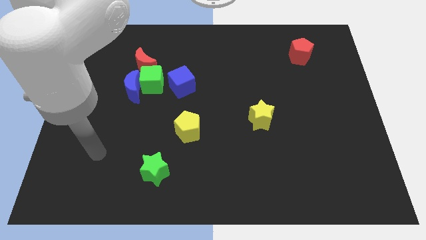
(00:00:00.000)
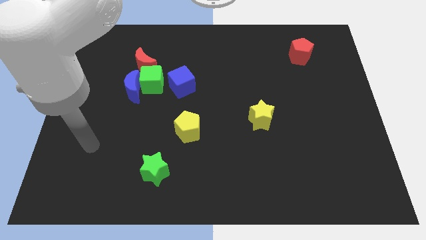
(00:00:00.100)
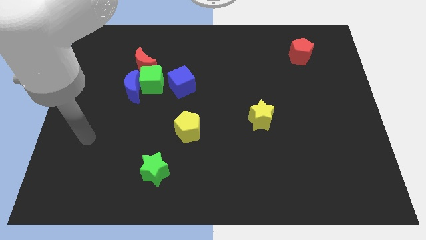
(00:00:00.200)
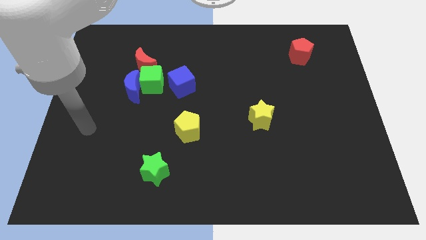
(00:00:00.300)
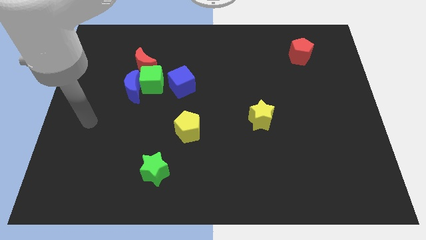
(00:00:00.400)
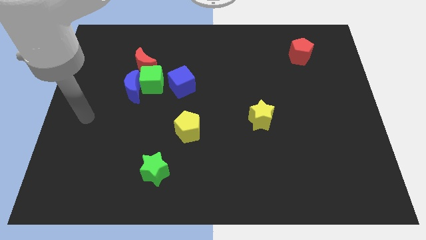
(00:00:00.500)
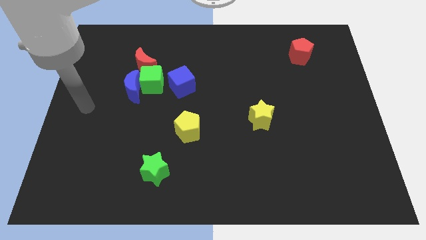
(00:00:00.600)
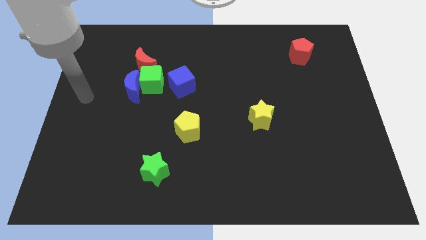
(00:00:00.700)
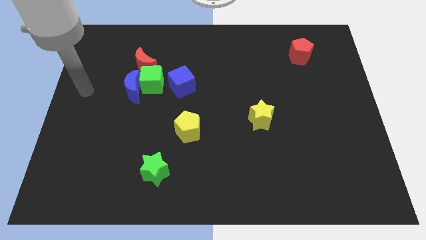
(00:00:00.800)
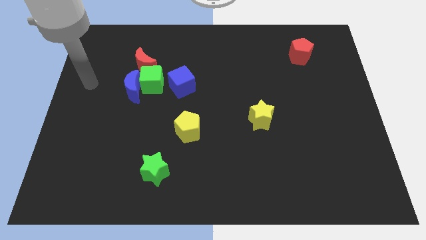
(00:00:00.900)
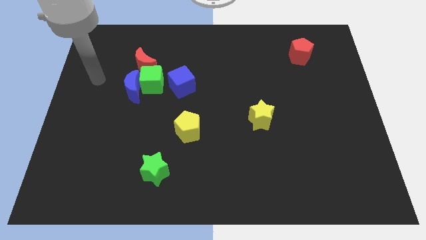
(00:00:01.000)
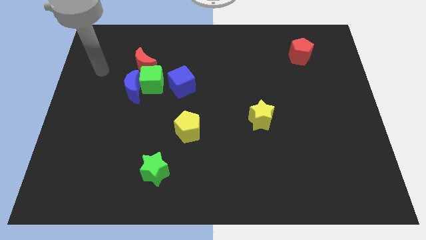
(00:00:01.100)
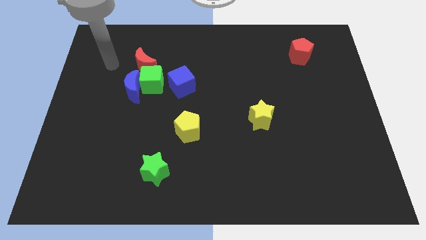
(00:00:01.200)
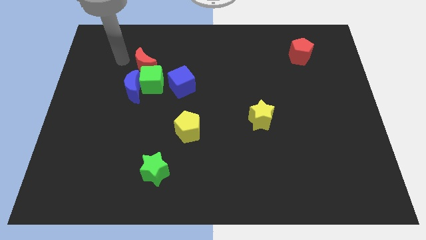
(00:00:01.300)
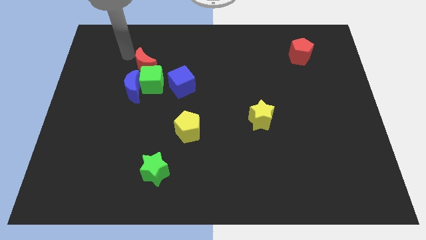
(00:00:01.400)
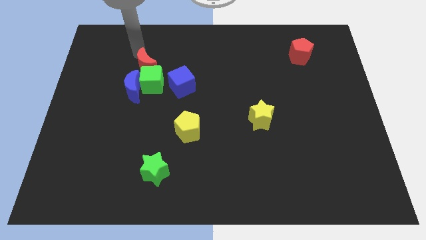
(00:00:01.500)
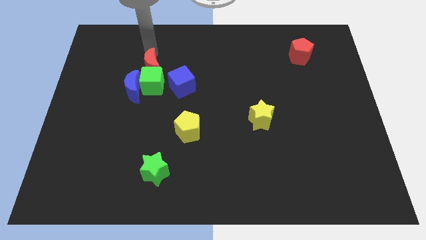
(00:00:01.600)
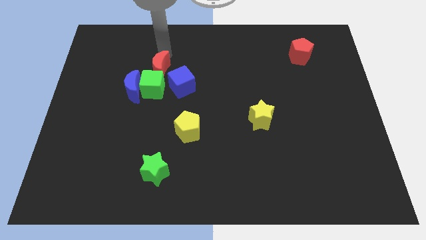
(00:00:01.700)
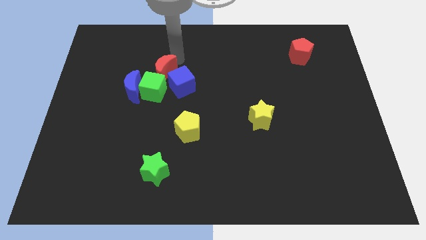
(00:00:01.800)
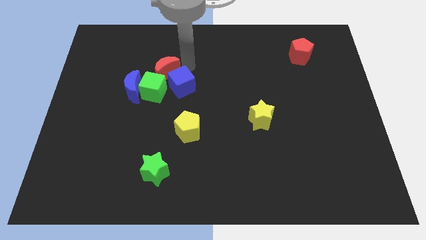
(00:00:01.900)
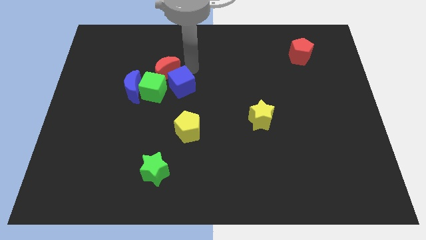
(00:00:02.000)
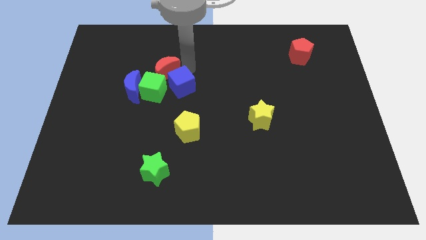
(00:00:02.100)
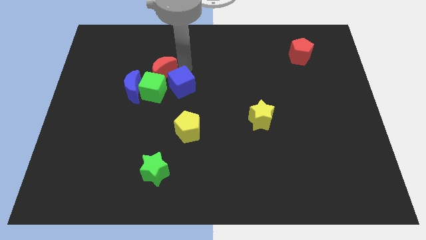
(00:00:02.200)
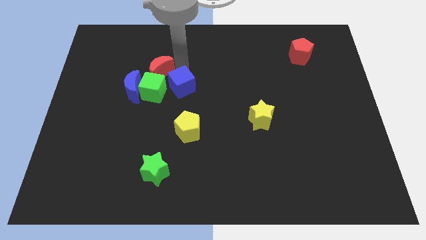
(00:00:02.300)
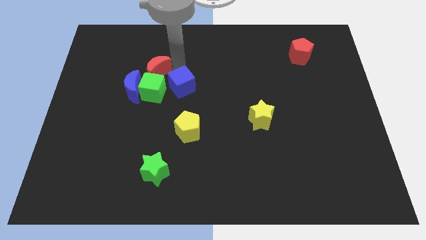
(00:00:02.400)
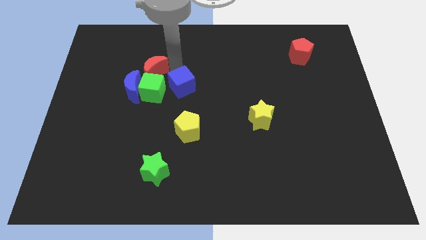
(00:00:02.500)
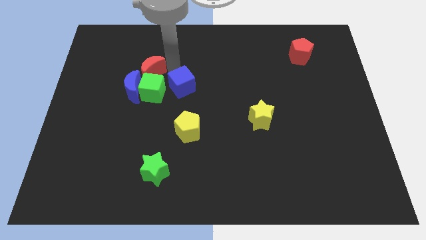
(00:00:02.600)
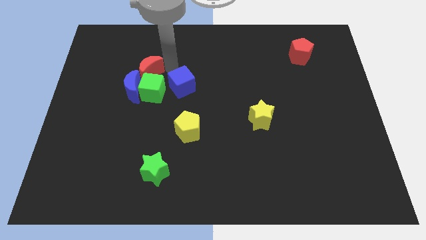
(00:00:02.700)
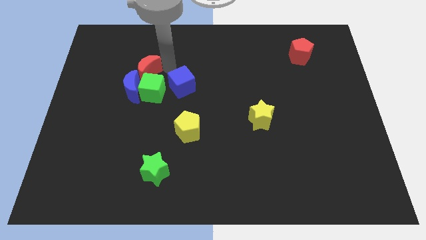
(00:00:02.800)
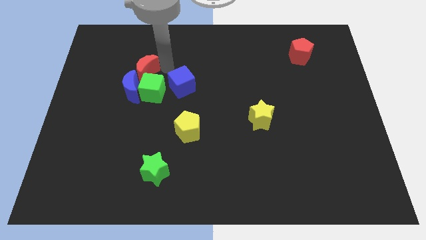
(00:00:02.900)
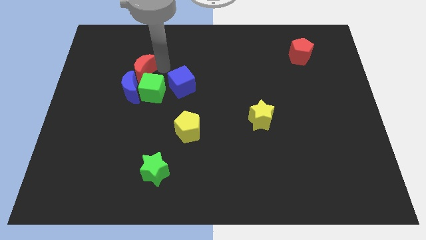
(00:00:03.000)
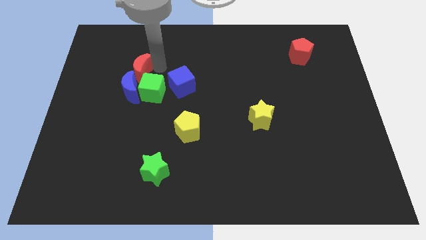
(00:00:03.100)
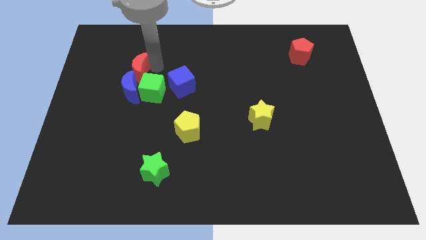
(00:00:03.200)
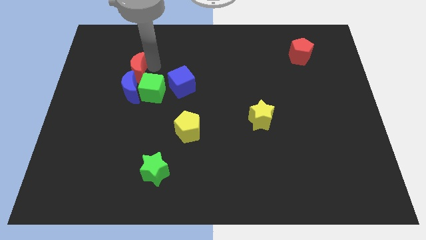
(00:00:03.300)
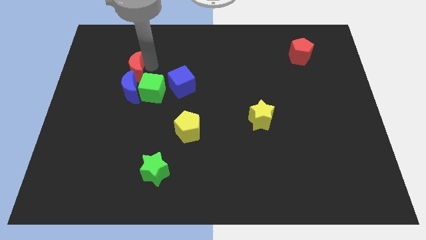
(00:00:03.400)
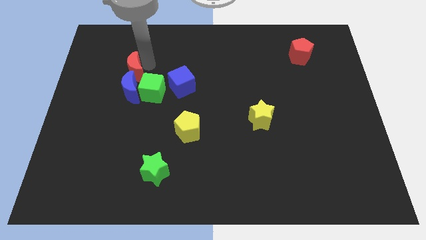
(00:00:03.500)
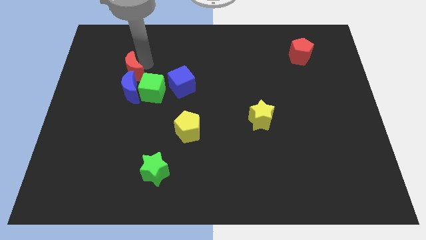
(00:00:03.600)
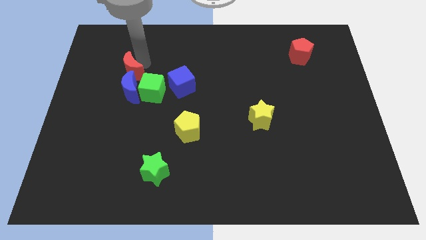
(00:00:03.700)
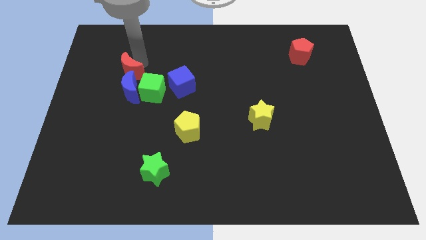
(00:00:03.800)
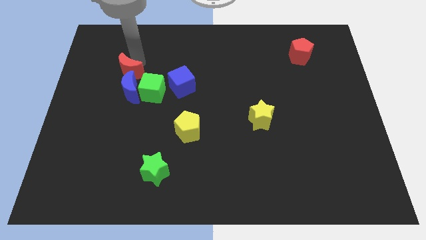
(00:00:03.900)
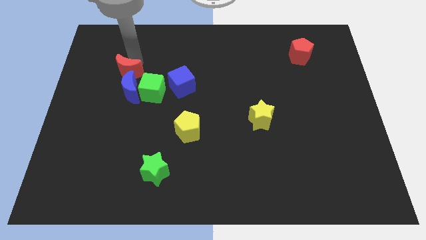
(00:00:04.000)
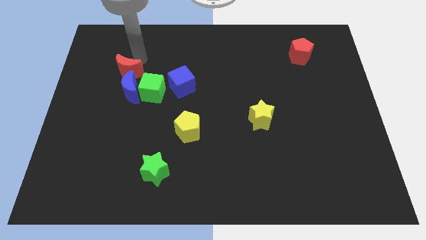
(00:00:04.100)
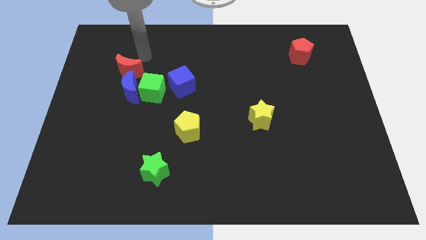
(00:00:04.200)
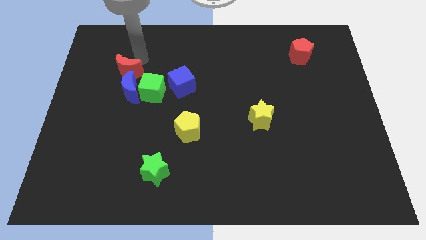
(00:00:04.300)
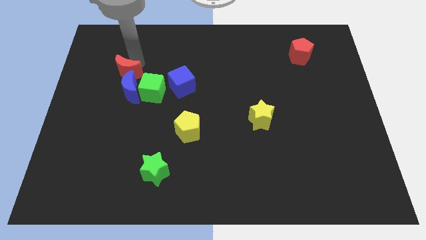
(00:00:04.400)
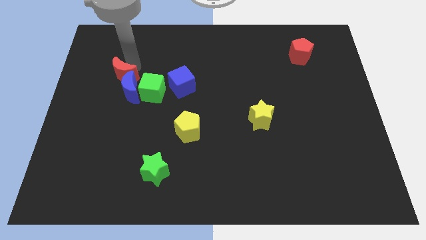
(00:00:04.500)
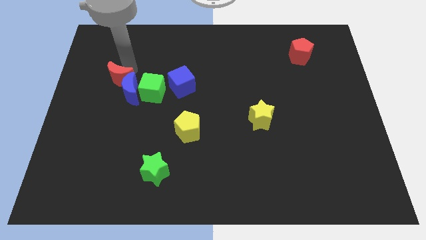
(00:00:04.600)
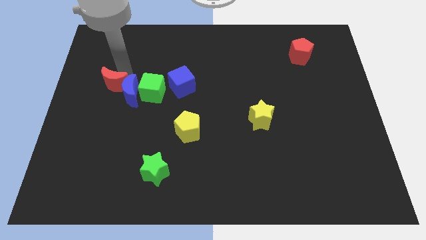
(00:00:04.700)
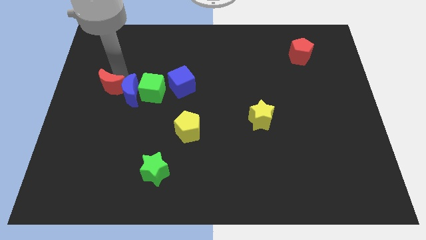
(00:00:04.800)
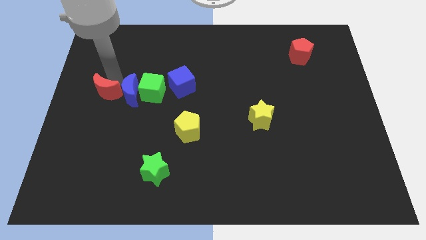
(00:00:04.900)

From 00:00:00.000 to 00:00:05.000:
slide the red moon to the bottom left side of the blue moon

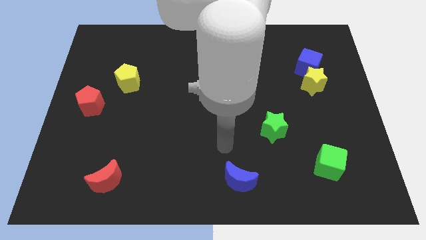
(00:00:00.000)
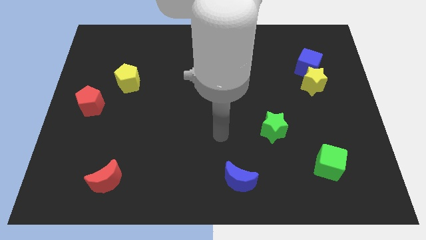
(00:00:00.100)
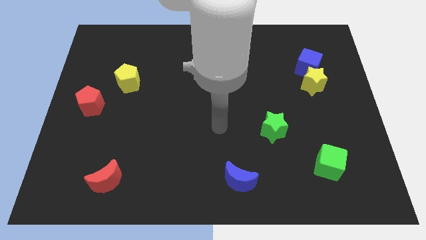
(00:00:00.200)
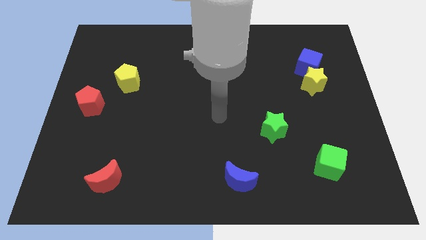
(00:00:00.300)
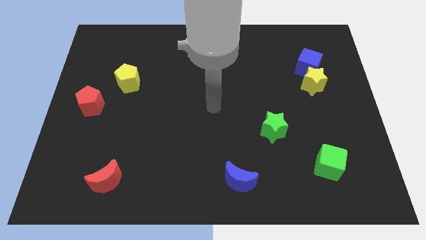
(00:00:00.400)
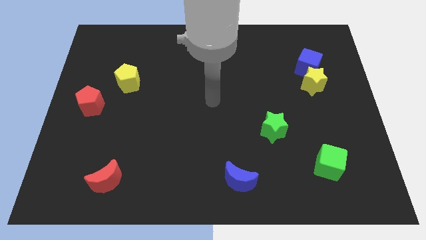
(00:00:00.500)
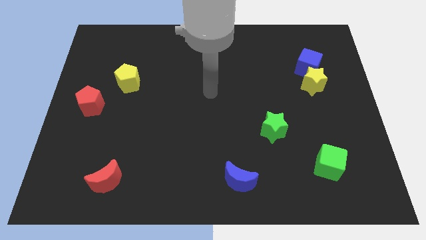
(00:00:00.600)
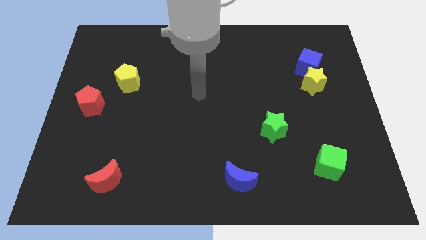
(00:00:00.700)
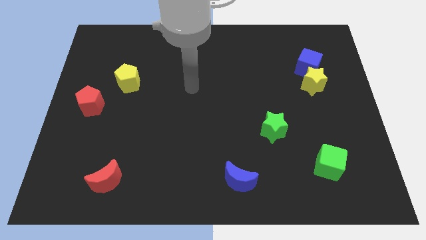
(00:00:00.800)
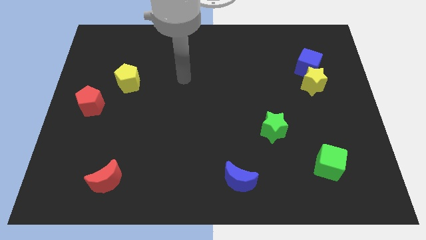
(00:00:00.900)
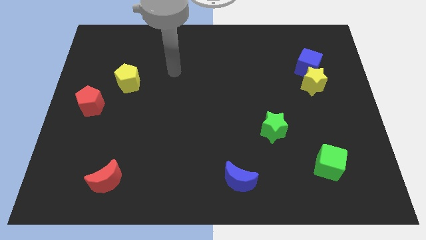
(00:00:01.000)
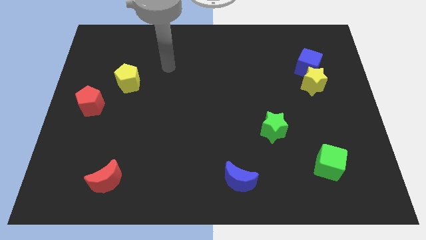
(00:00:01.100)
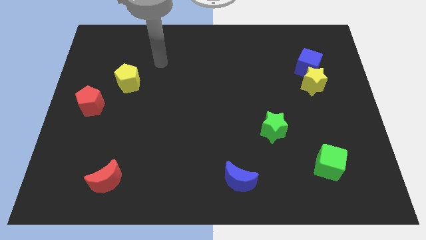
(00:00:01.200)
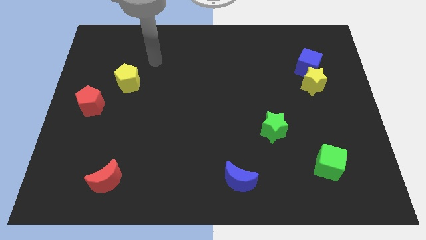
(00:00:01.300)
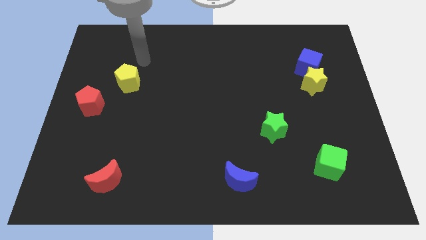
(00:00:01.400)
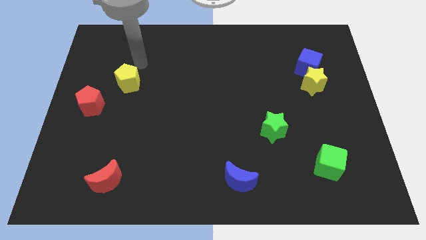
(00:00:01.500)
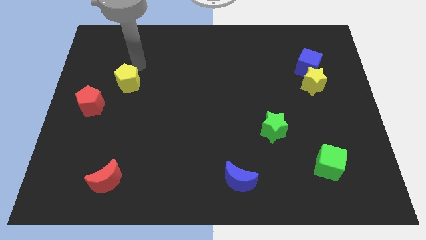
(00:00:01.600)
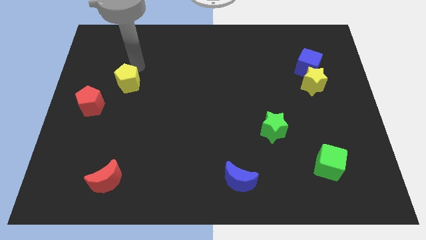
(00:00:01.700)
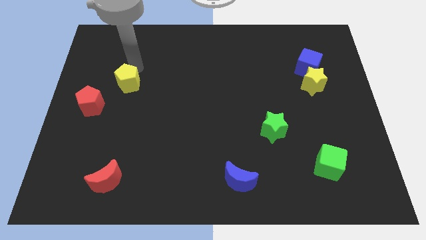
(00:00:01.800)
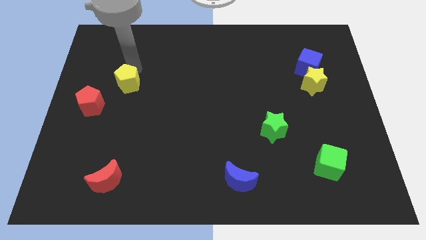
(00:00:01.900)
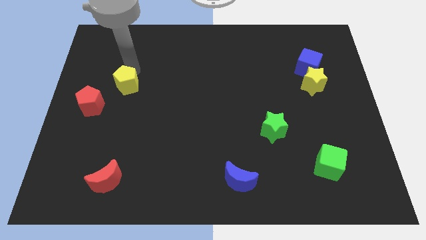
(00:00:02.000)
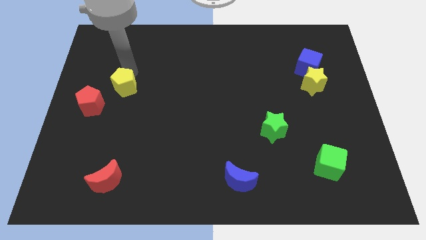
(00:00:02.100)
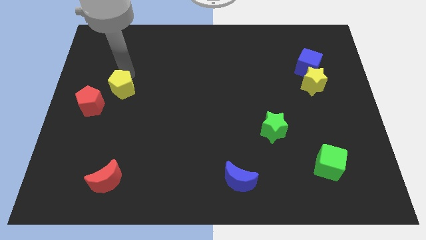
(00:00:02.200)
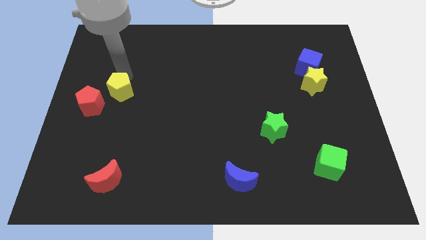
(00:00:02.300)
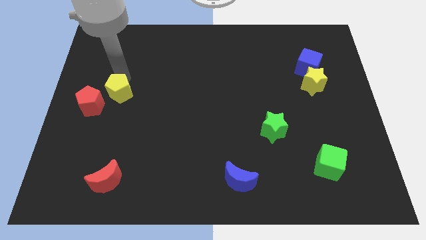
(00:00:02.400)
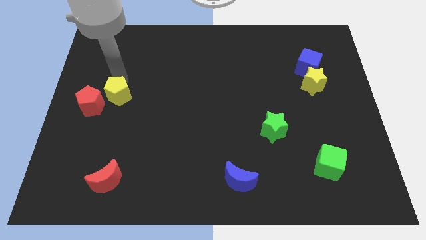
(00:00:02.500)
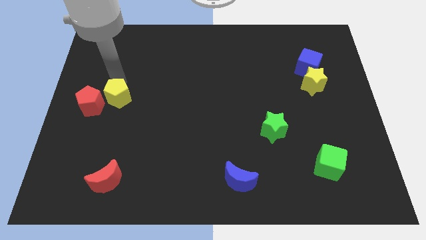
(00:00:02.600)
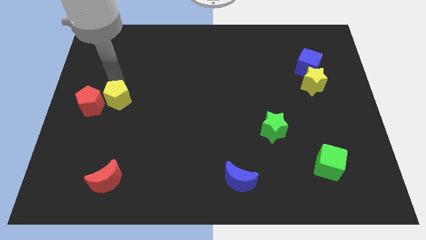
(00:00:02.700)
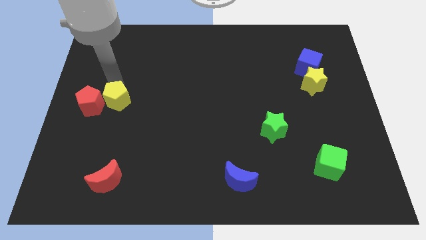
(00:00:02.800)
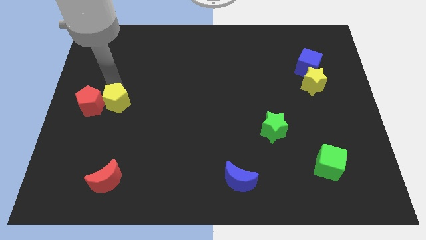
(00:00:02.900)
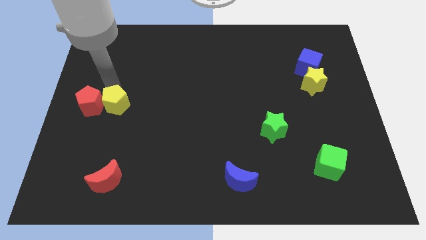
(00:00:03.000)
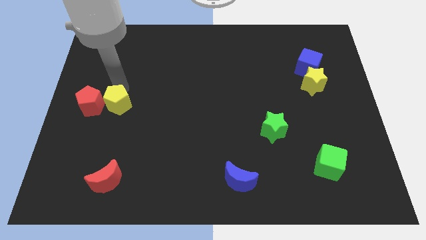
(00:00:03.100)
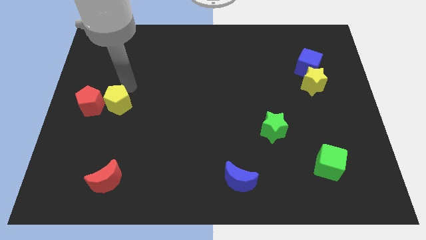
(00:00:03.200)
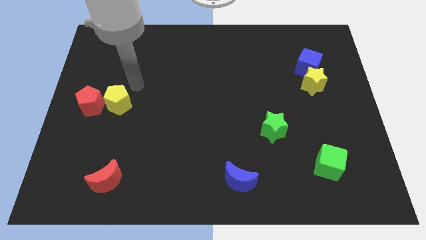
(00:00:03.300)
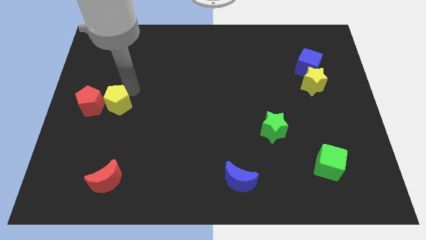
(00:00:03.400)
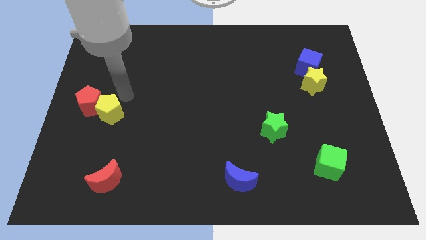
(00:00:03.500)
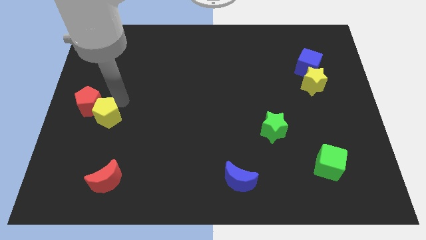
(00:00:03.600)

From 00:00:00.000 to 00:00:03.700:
slide the yellow pentagon to the bottom of the red pentagon
